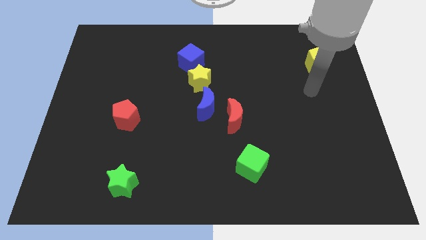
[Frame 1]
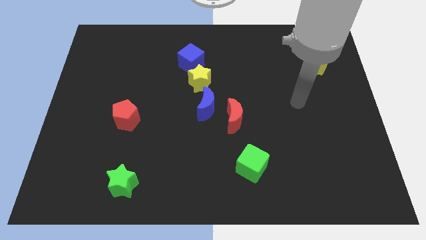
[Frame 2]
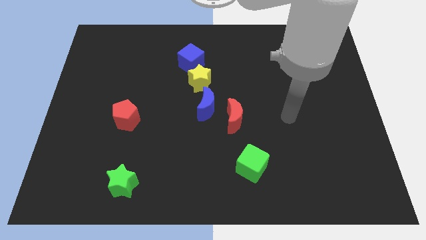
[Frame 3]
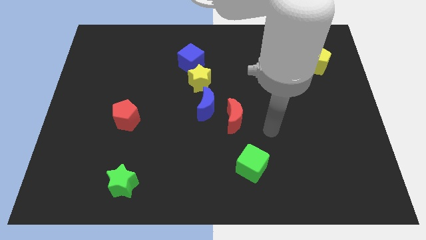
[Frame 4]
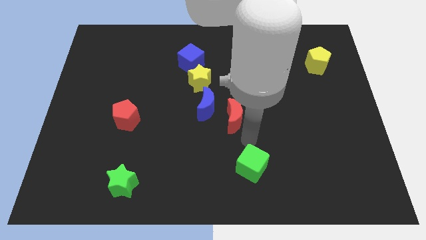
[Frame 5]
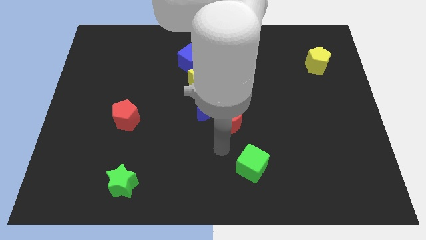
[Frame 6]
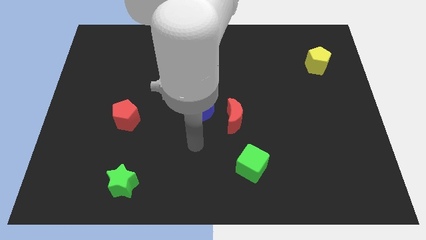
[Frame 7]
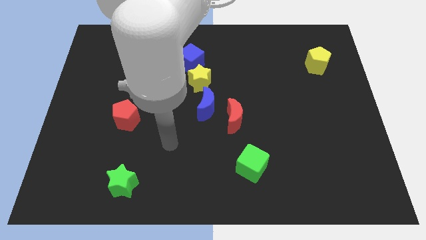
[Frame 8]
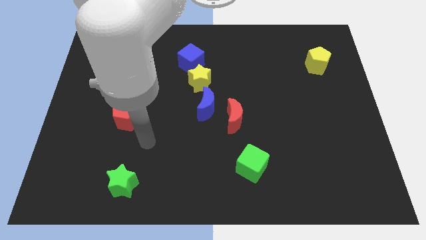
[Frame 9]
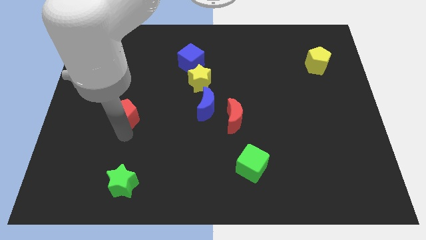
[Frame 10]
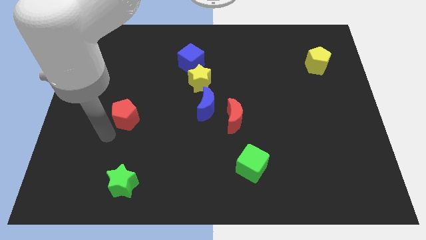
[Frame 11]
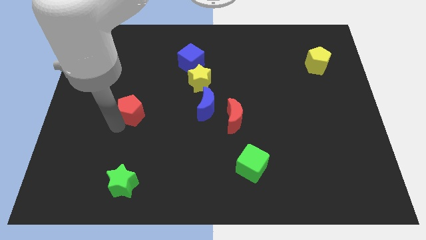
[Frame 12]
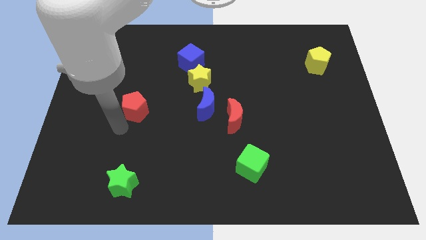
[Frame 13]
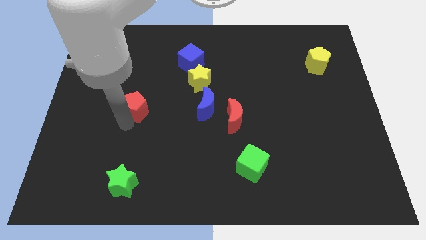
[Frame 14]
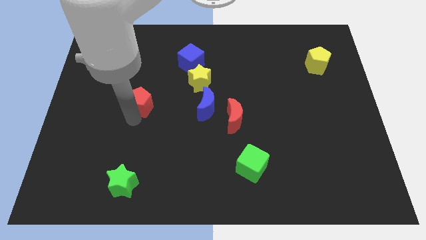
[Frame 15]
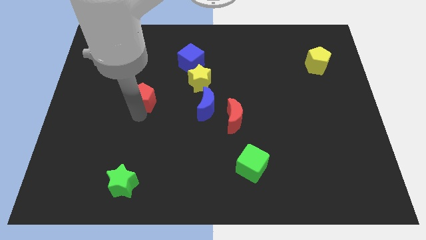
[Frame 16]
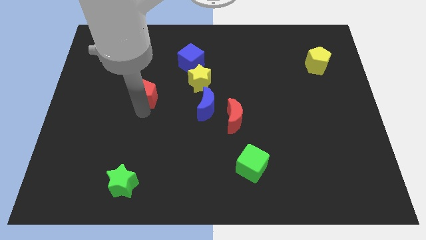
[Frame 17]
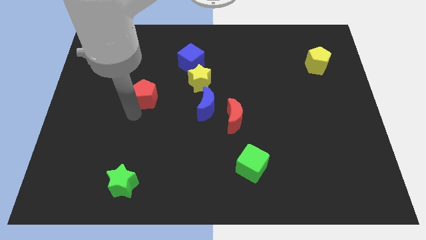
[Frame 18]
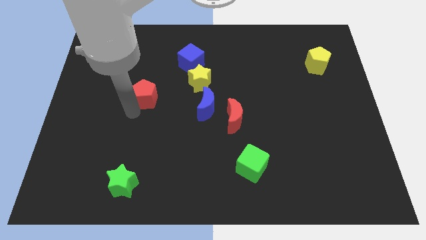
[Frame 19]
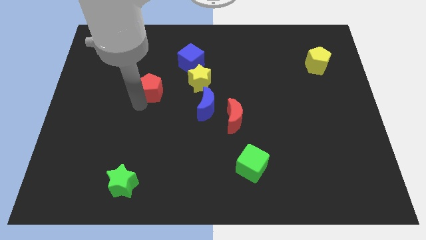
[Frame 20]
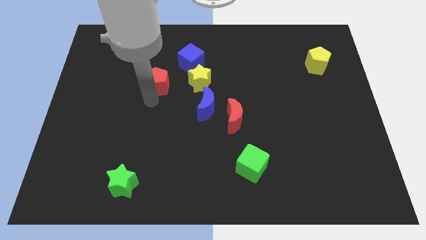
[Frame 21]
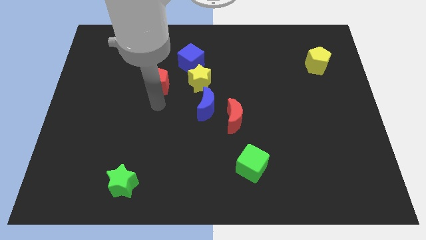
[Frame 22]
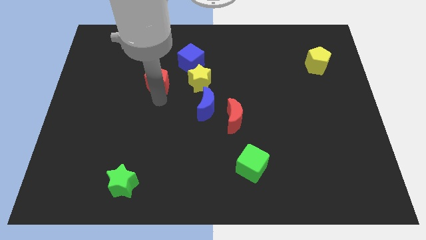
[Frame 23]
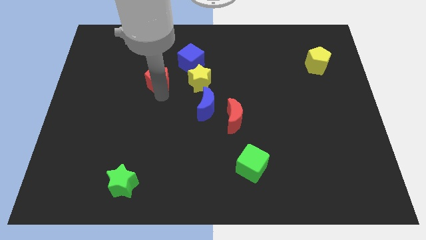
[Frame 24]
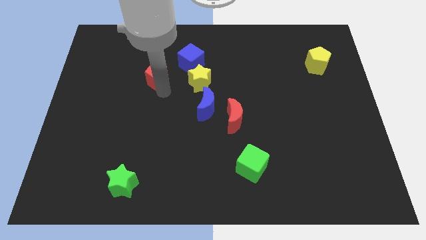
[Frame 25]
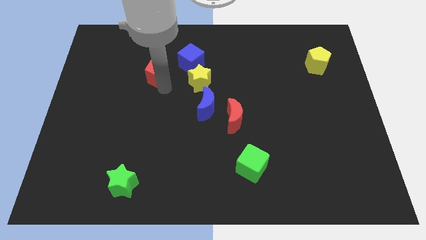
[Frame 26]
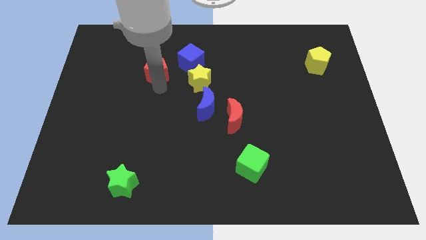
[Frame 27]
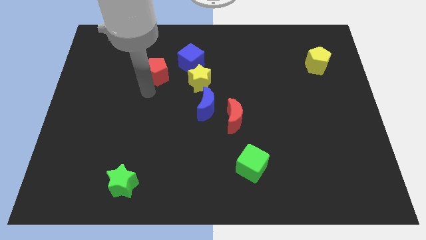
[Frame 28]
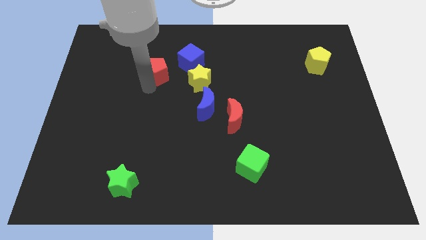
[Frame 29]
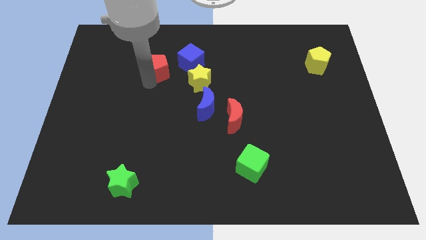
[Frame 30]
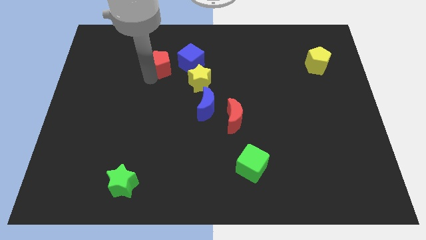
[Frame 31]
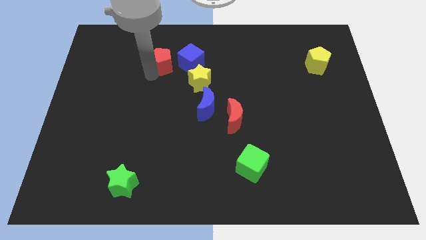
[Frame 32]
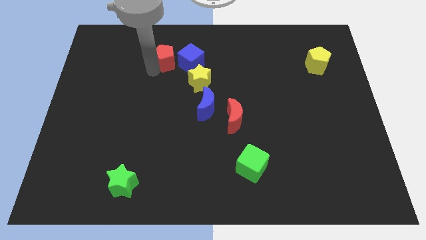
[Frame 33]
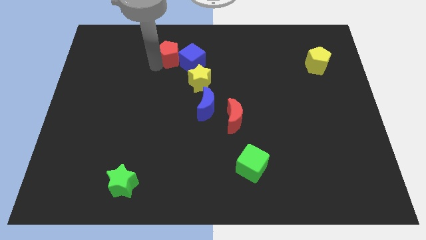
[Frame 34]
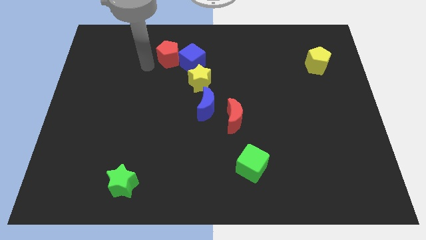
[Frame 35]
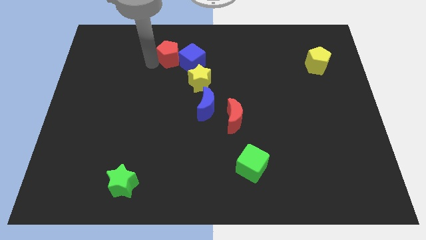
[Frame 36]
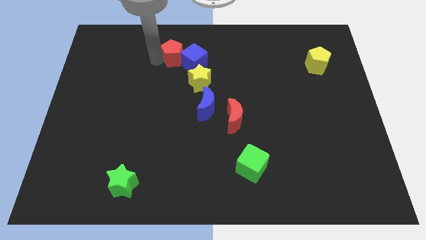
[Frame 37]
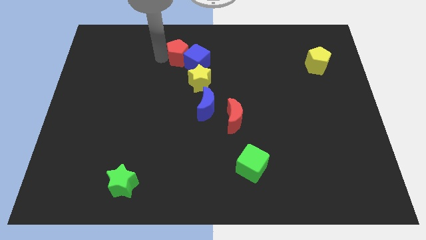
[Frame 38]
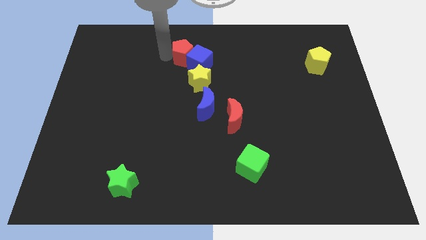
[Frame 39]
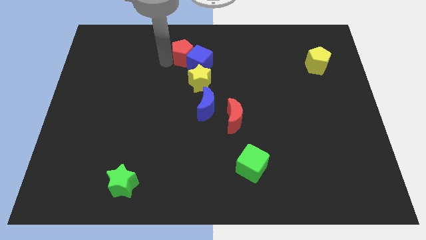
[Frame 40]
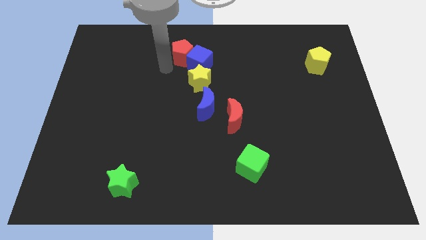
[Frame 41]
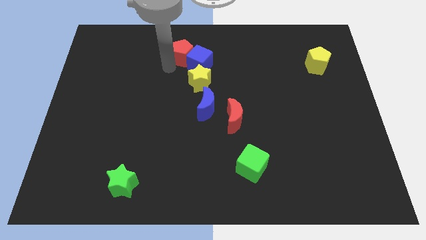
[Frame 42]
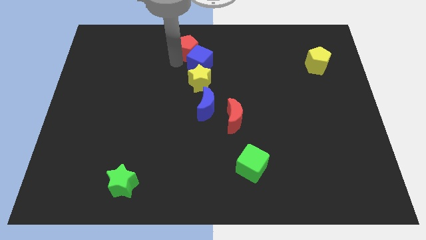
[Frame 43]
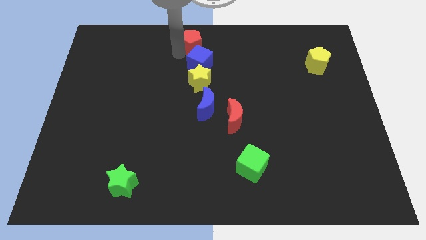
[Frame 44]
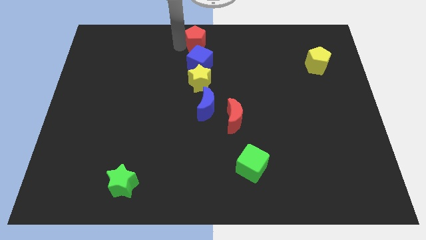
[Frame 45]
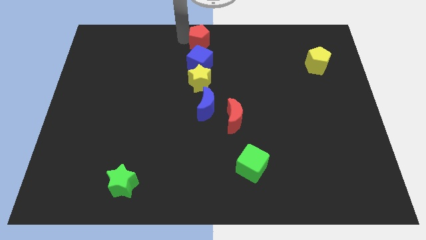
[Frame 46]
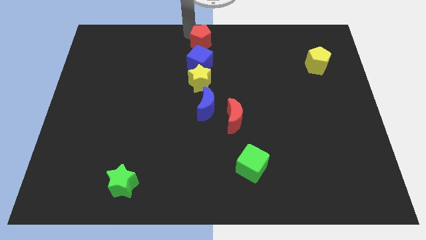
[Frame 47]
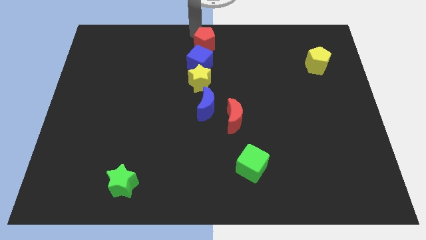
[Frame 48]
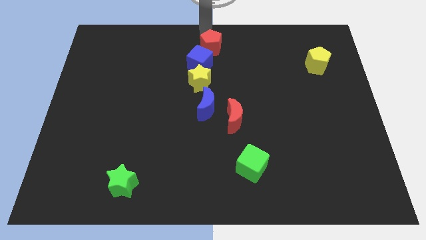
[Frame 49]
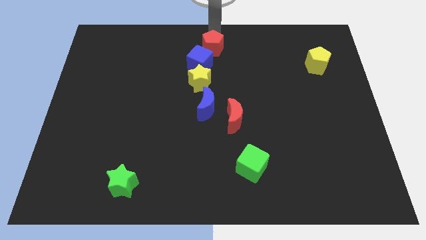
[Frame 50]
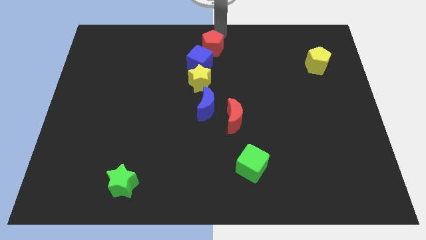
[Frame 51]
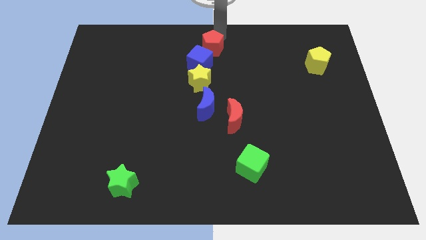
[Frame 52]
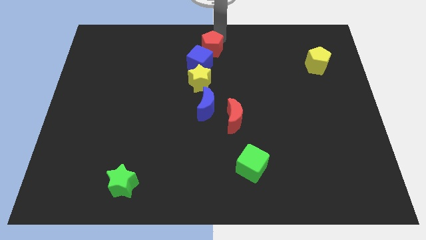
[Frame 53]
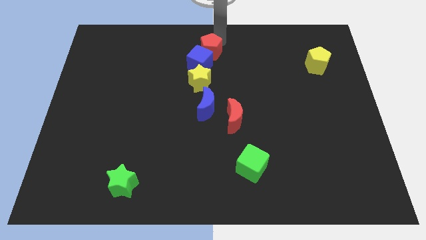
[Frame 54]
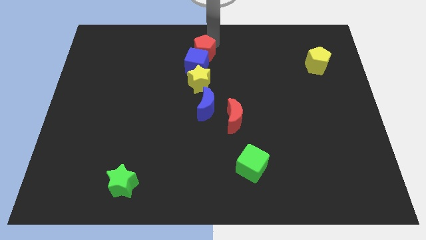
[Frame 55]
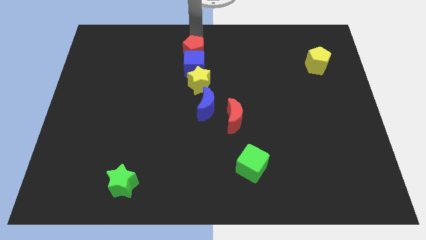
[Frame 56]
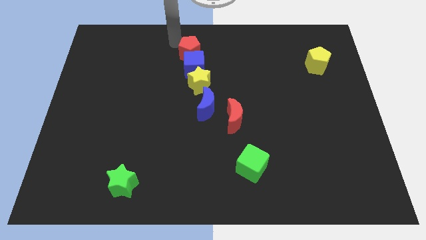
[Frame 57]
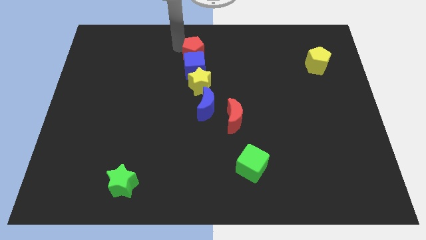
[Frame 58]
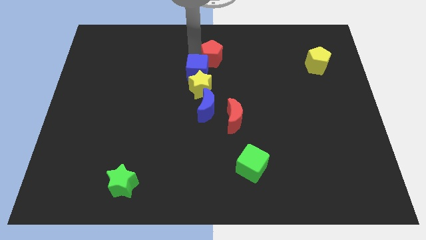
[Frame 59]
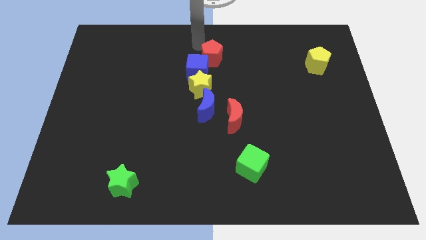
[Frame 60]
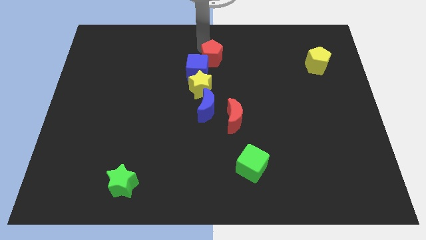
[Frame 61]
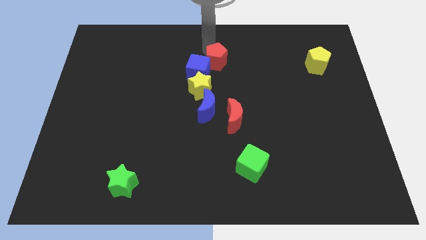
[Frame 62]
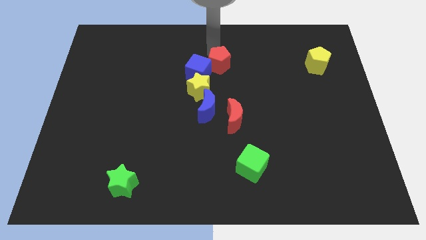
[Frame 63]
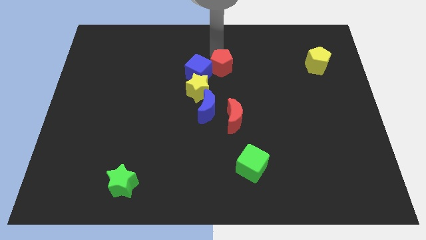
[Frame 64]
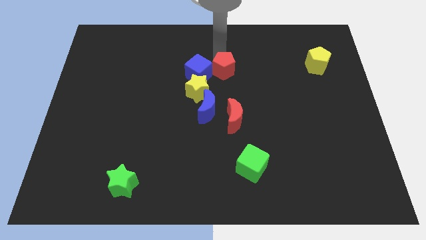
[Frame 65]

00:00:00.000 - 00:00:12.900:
push the red pentagon to the top of the red moon
